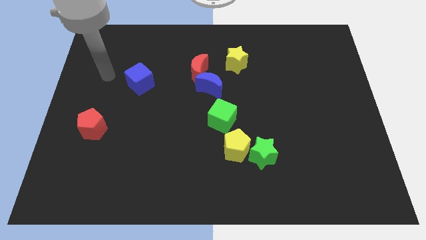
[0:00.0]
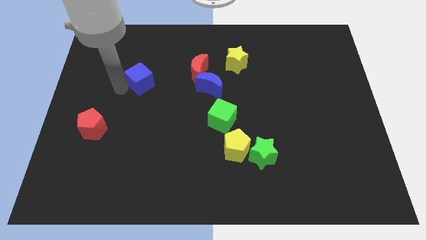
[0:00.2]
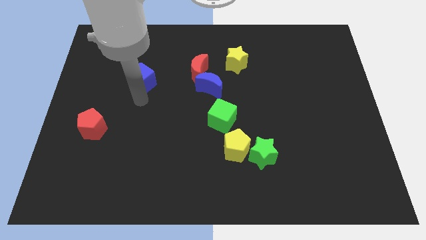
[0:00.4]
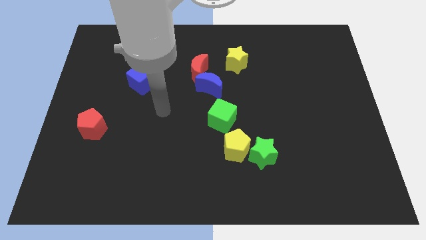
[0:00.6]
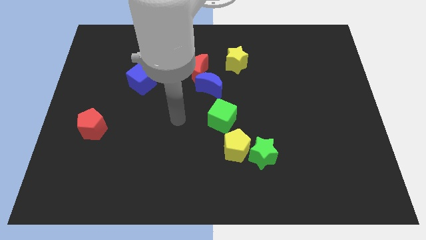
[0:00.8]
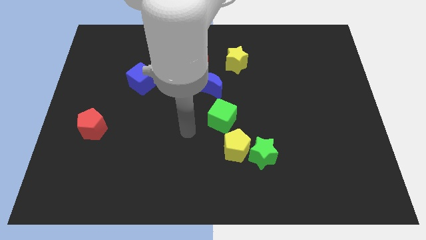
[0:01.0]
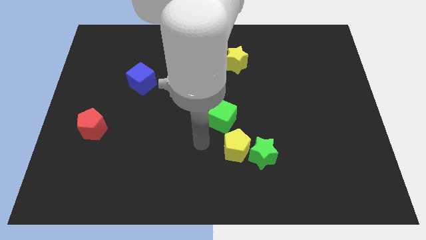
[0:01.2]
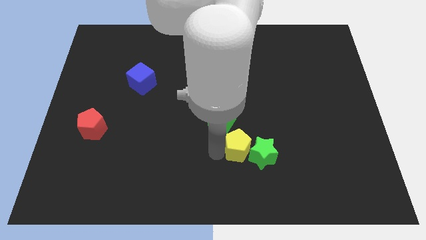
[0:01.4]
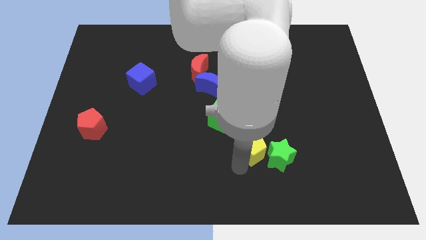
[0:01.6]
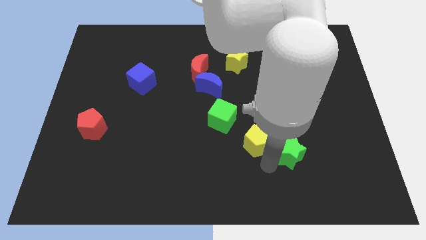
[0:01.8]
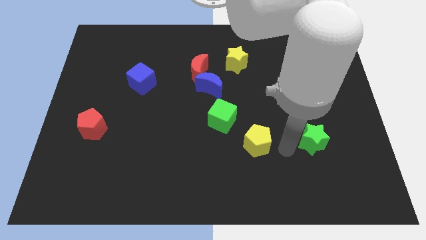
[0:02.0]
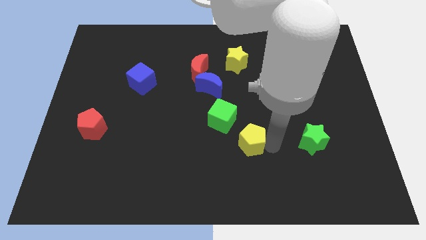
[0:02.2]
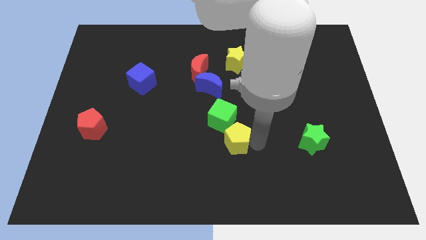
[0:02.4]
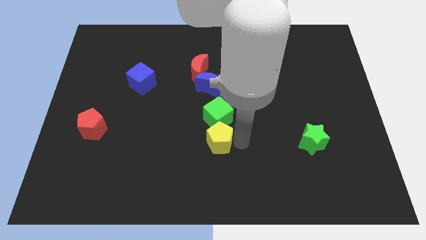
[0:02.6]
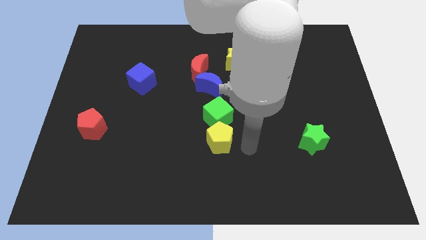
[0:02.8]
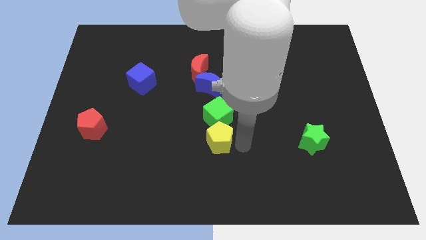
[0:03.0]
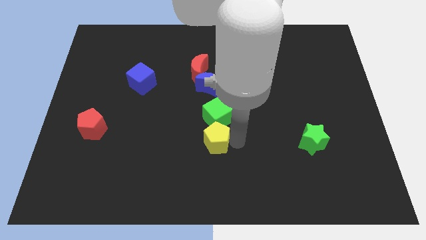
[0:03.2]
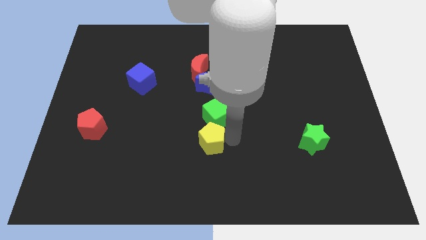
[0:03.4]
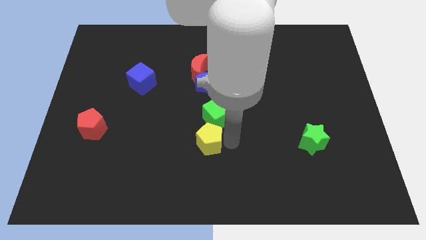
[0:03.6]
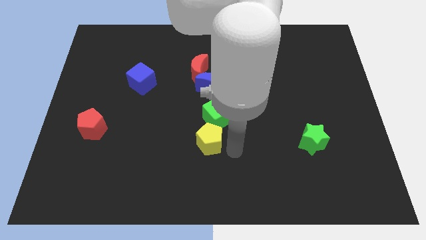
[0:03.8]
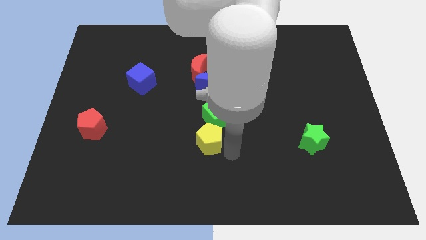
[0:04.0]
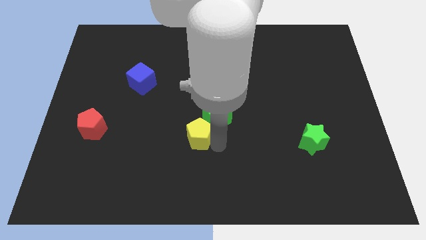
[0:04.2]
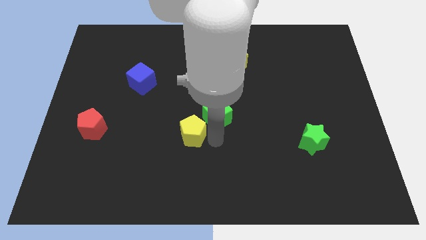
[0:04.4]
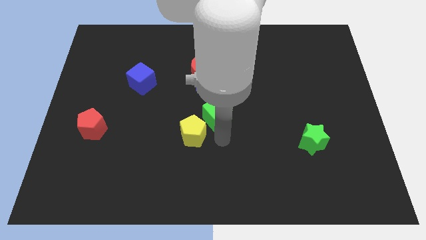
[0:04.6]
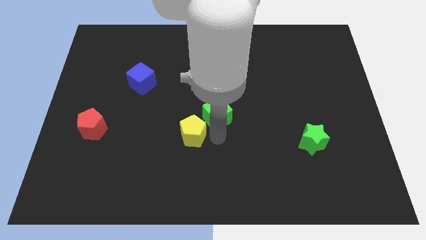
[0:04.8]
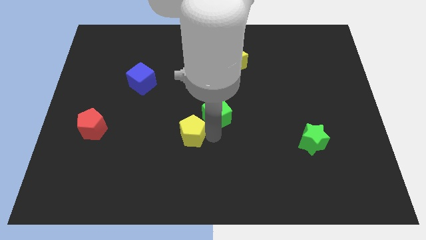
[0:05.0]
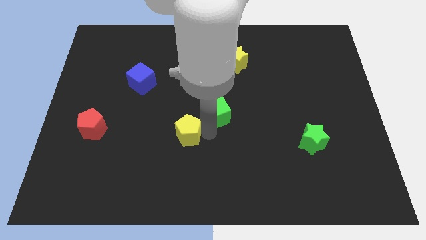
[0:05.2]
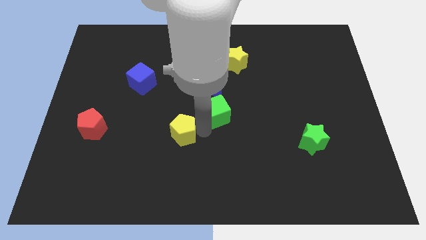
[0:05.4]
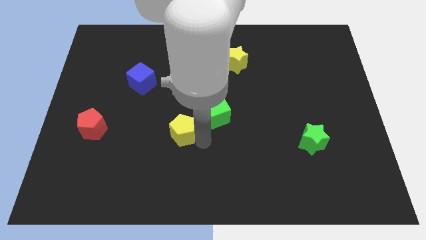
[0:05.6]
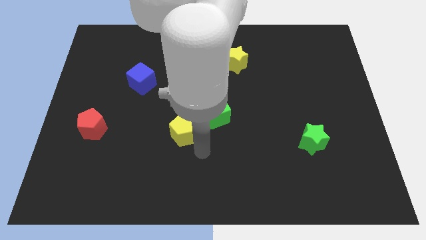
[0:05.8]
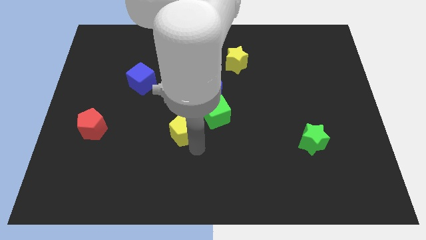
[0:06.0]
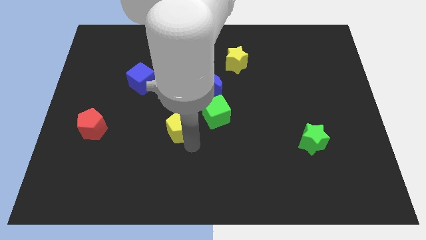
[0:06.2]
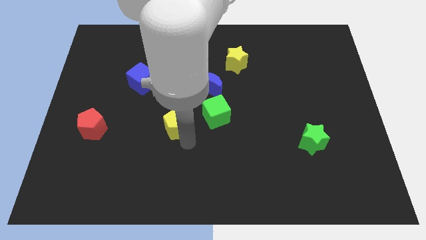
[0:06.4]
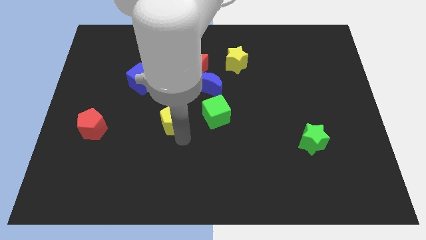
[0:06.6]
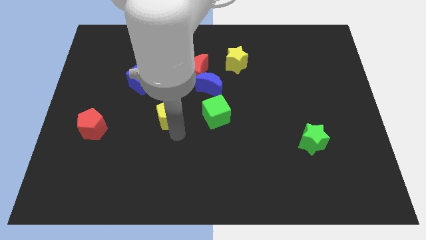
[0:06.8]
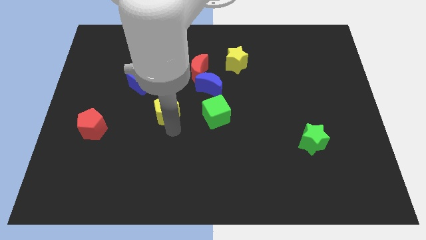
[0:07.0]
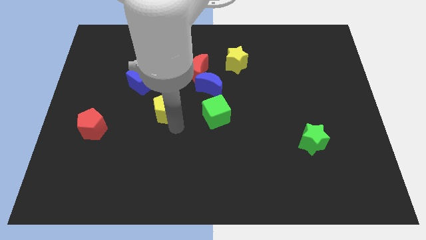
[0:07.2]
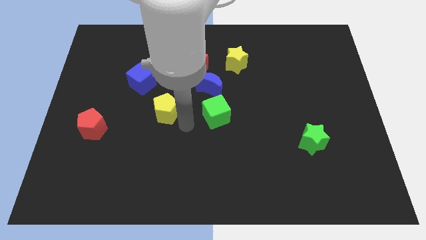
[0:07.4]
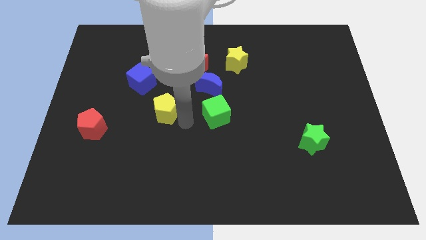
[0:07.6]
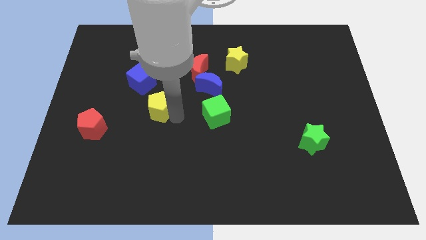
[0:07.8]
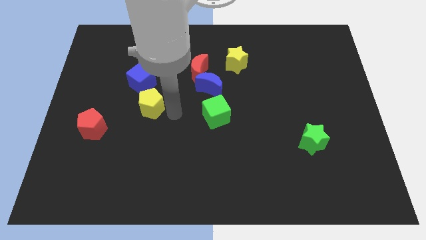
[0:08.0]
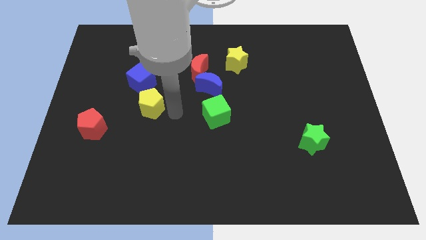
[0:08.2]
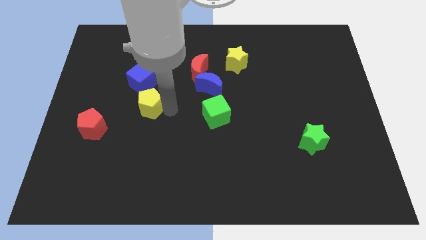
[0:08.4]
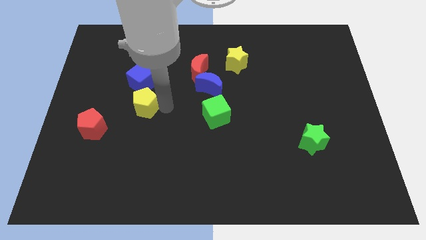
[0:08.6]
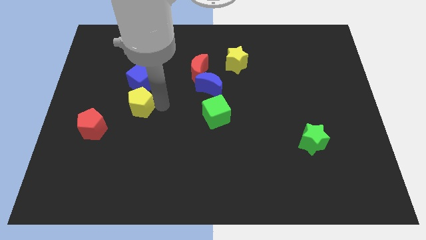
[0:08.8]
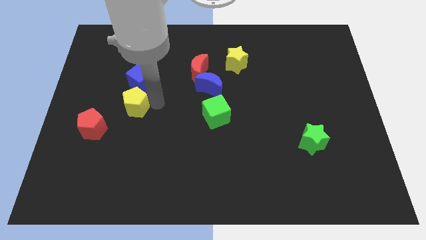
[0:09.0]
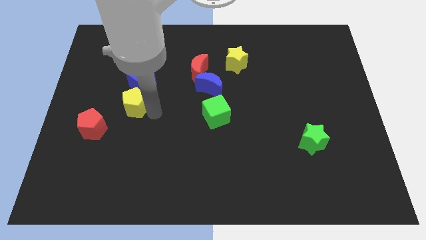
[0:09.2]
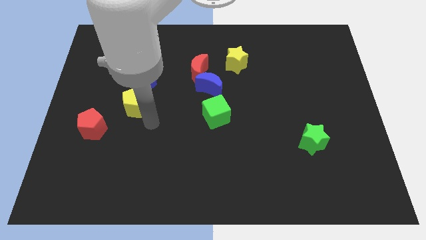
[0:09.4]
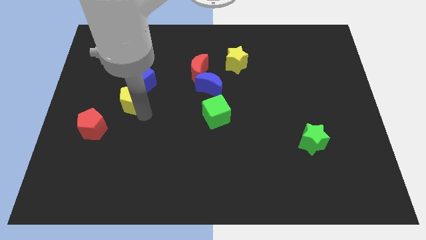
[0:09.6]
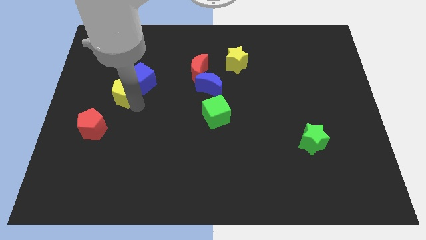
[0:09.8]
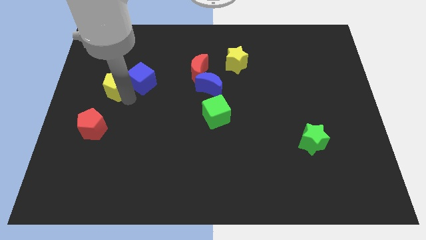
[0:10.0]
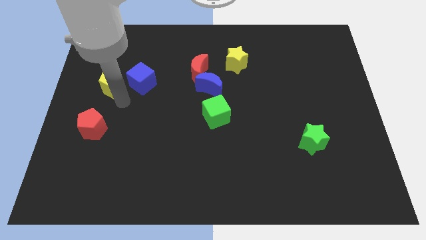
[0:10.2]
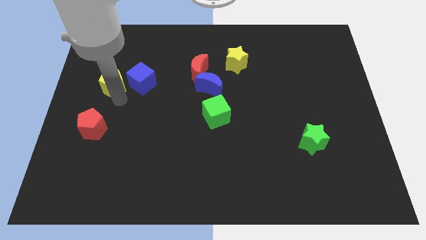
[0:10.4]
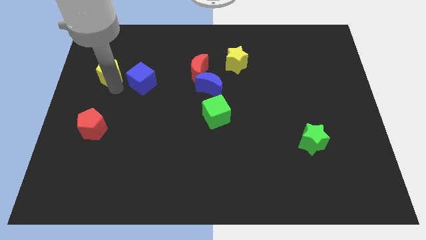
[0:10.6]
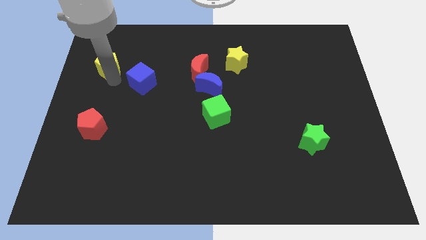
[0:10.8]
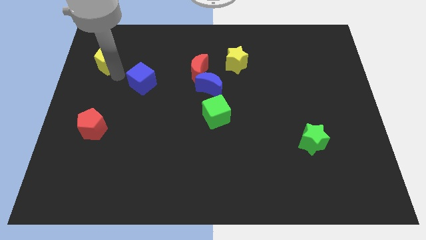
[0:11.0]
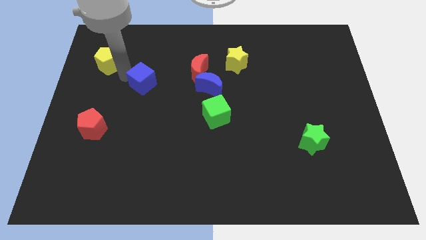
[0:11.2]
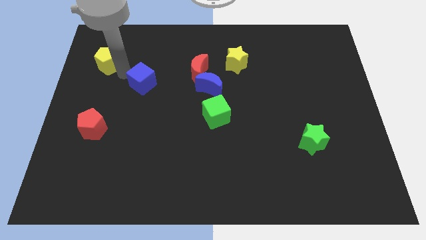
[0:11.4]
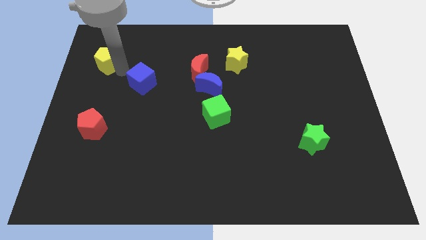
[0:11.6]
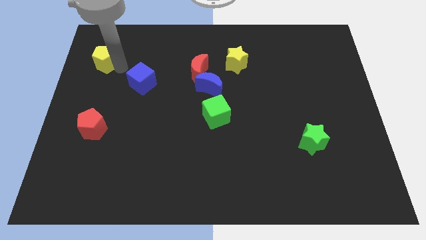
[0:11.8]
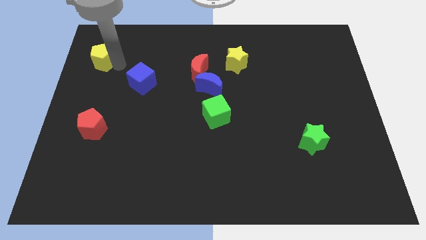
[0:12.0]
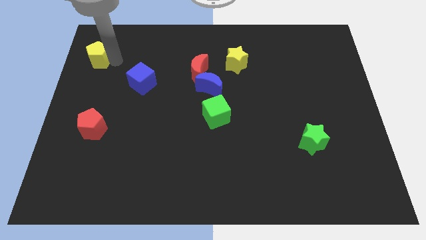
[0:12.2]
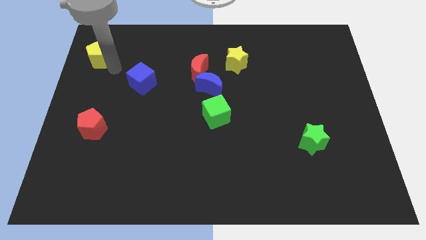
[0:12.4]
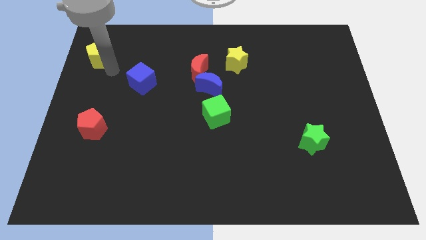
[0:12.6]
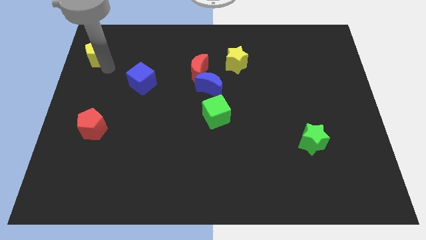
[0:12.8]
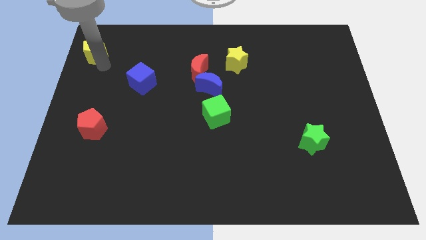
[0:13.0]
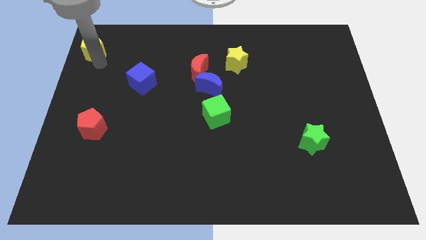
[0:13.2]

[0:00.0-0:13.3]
slide the yellow pentagon to the top left
